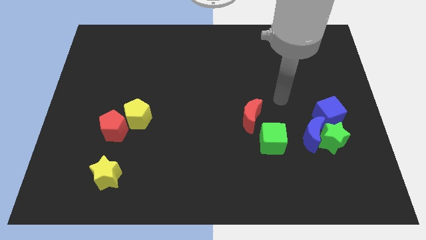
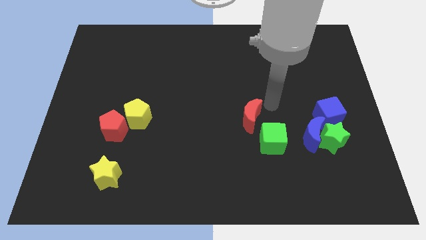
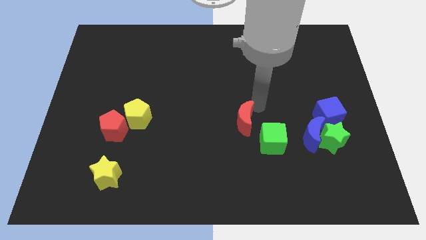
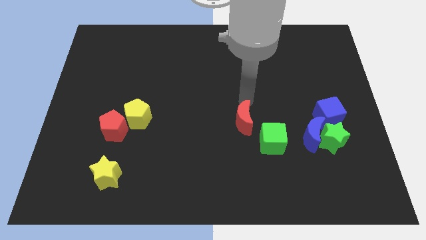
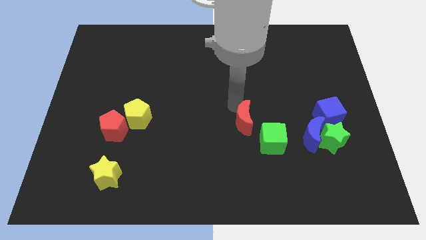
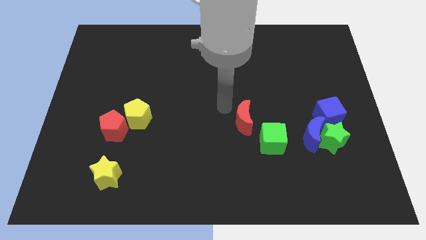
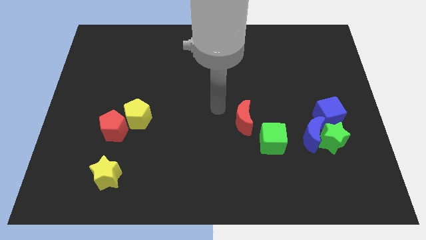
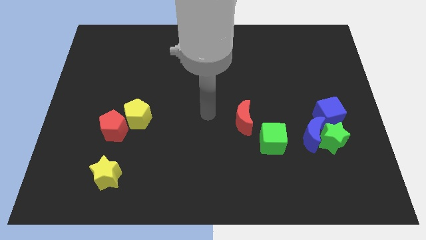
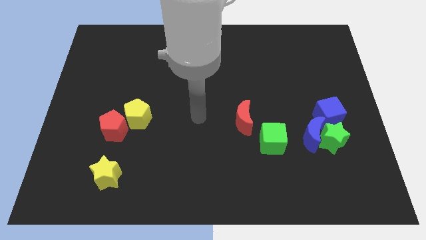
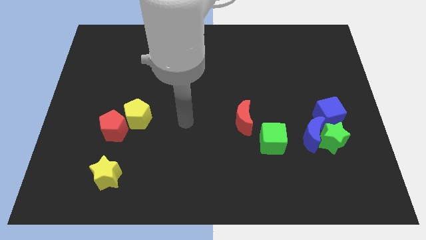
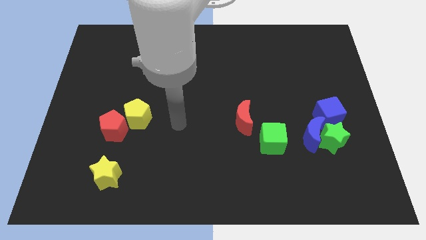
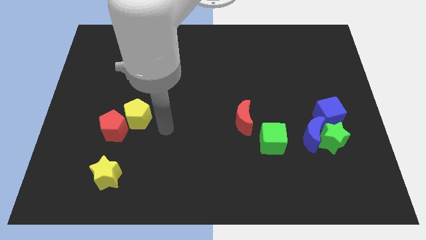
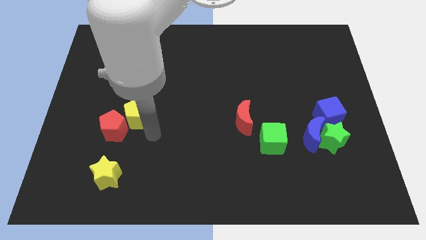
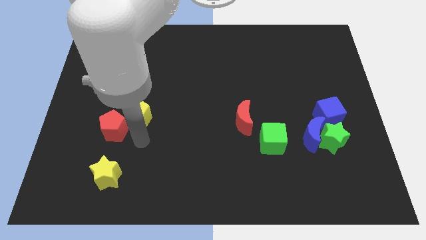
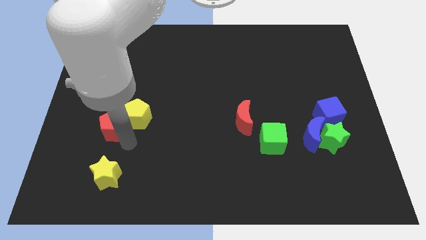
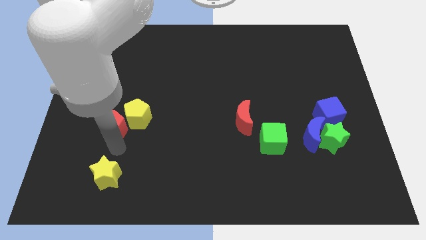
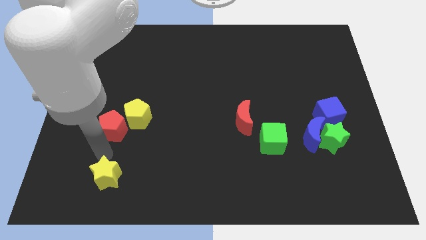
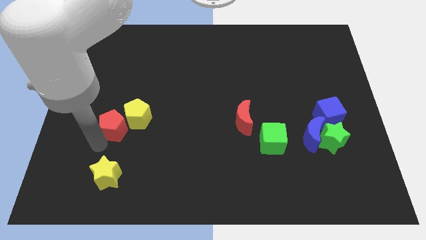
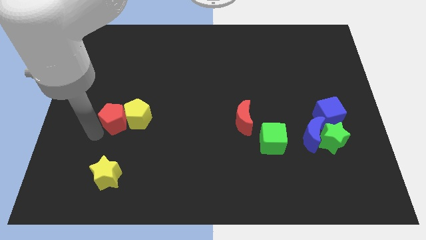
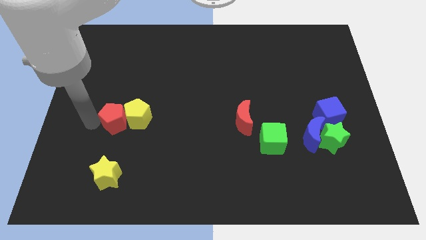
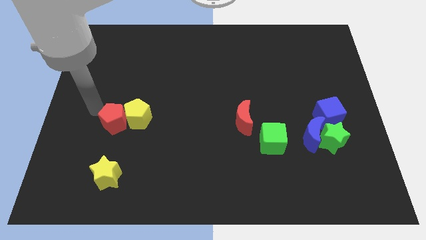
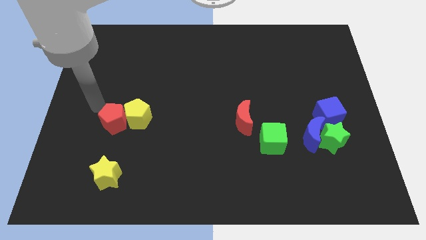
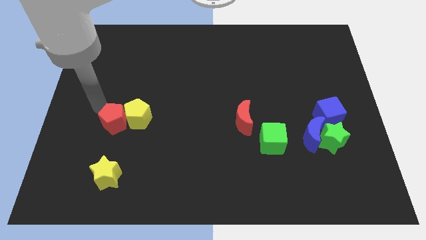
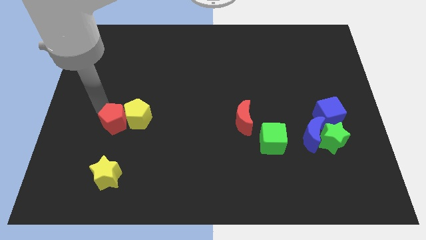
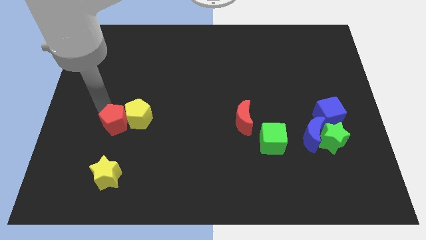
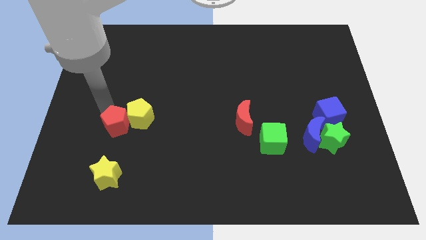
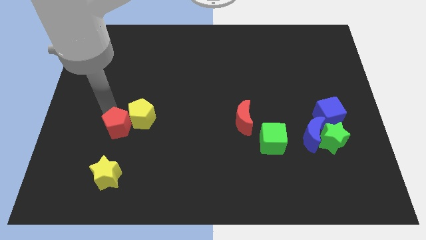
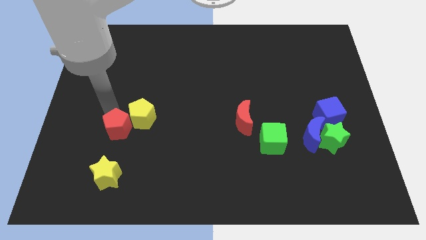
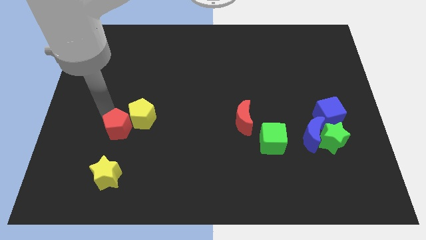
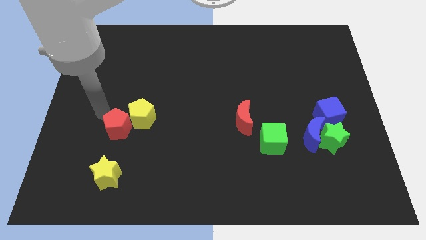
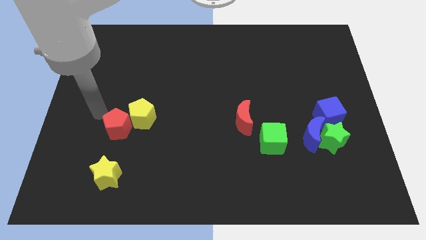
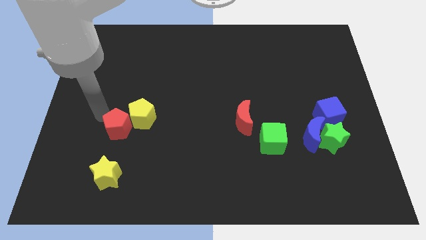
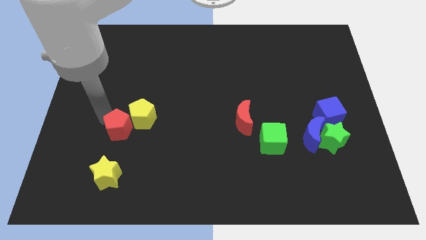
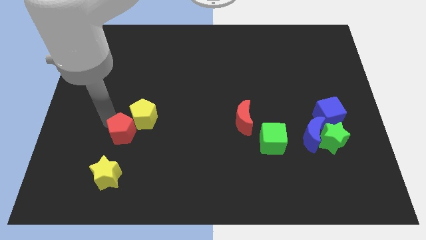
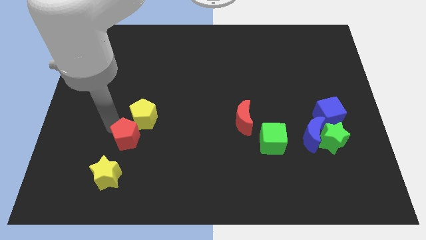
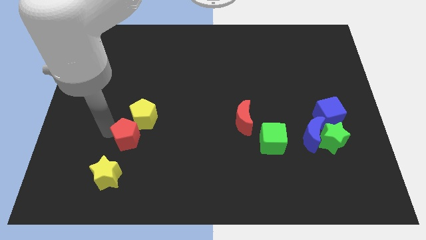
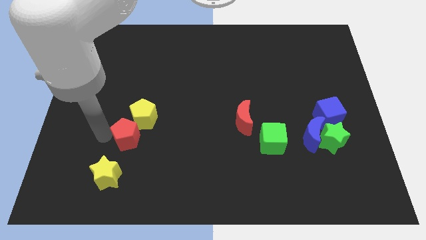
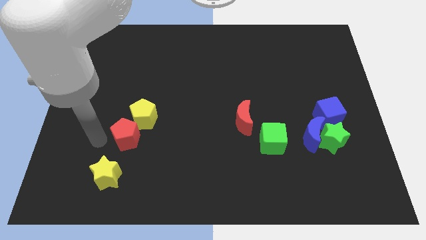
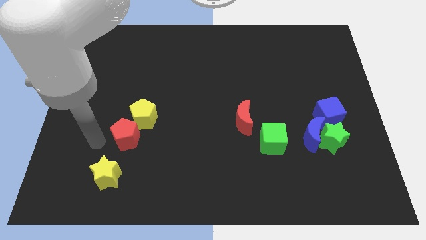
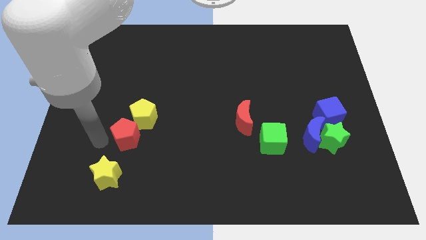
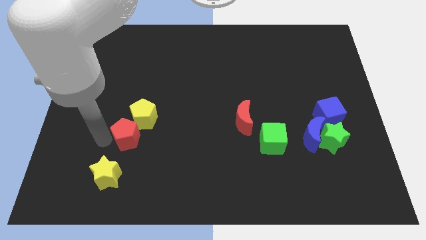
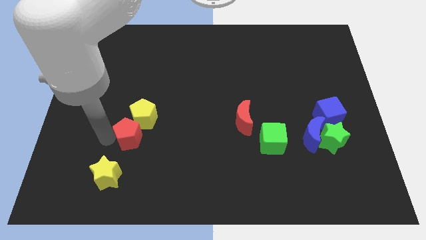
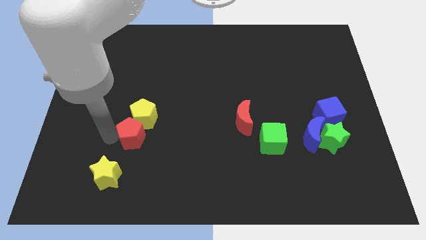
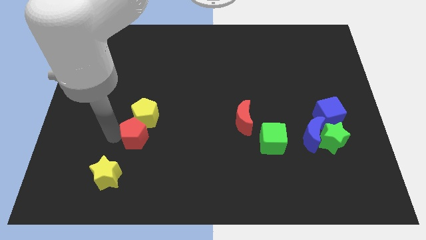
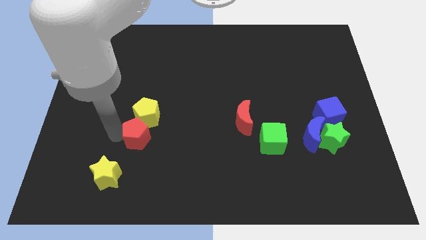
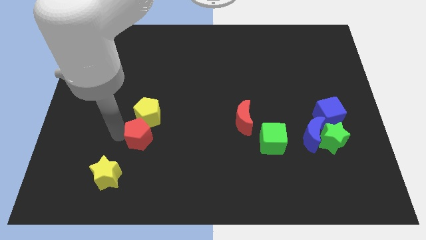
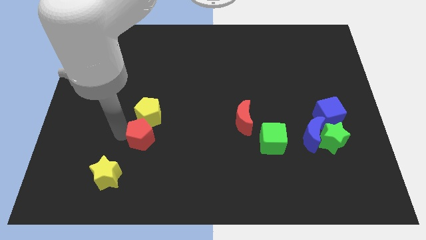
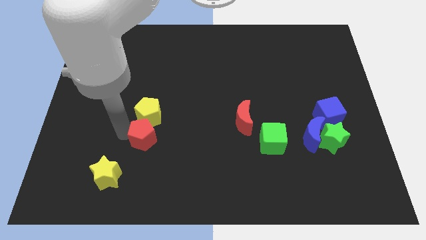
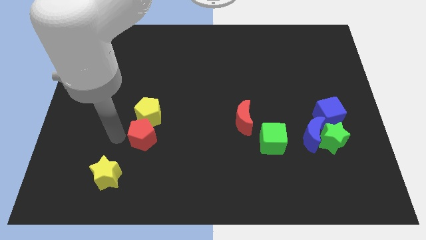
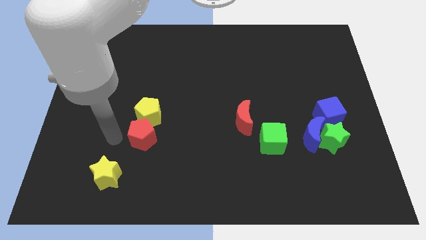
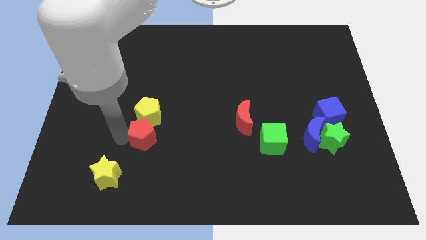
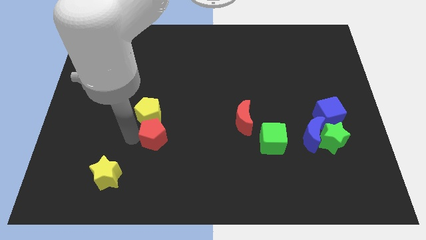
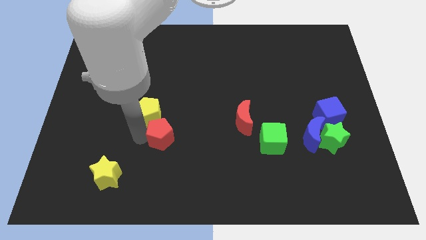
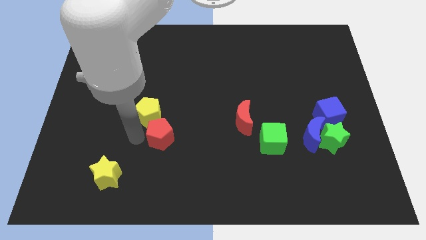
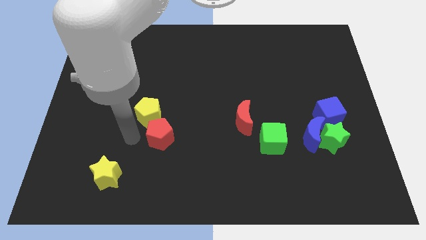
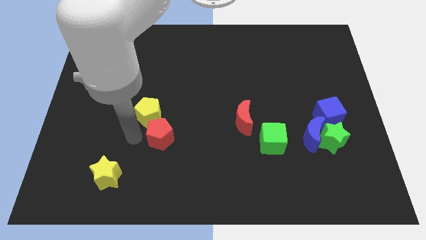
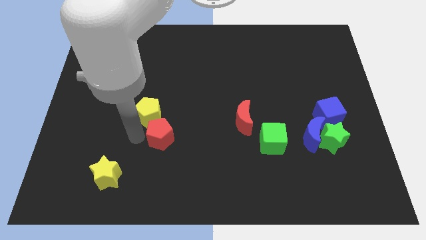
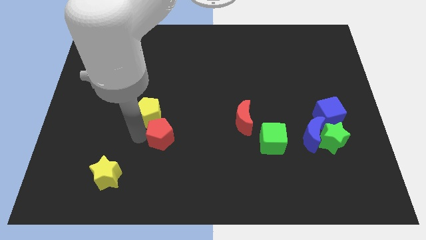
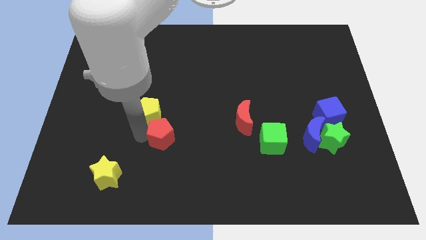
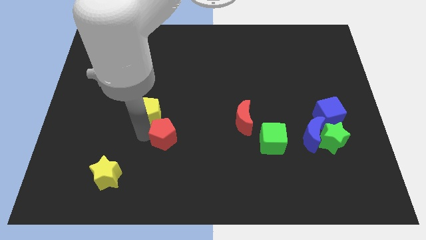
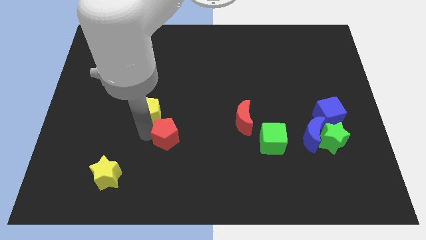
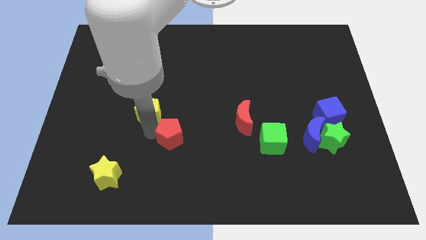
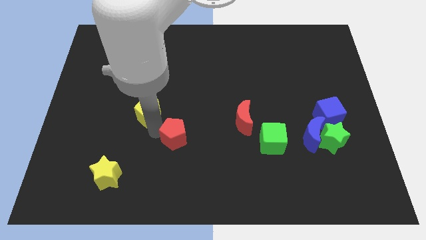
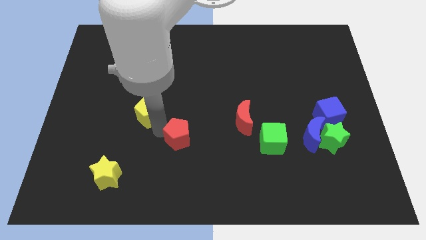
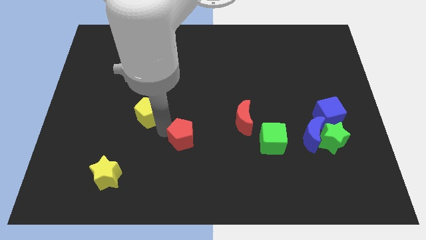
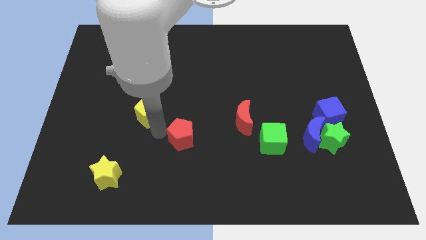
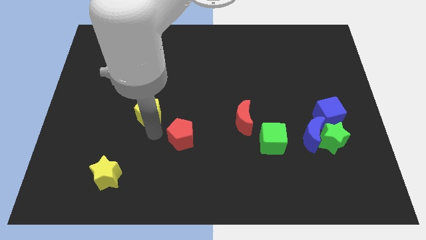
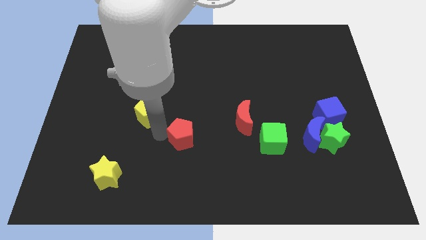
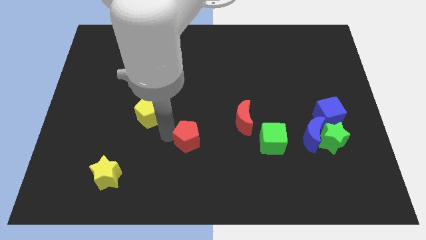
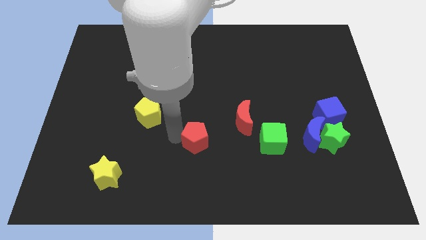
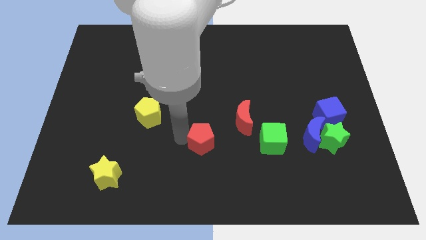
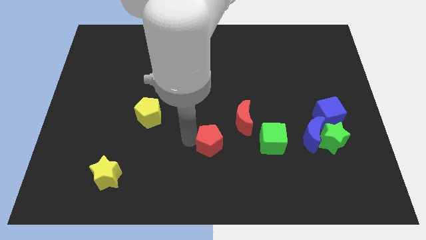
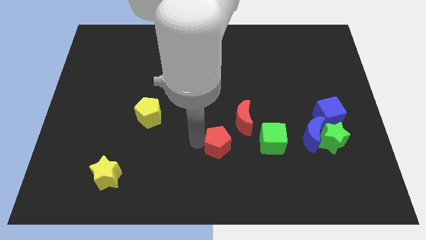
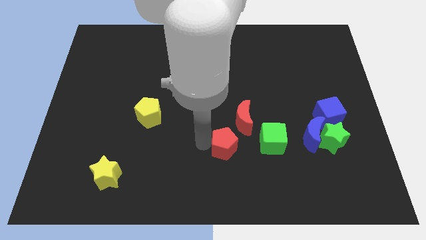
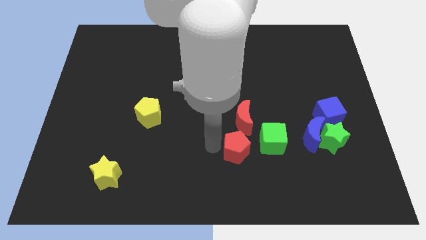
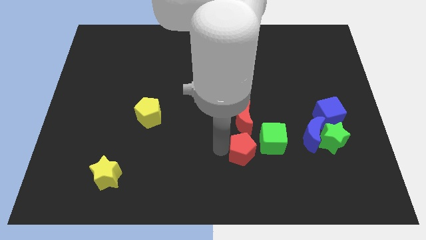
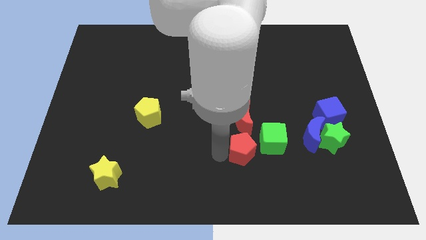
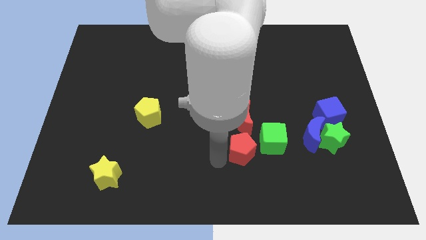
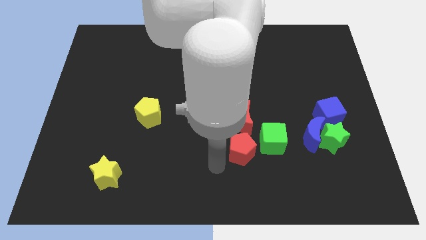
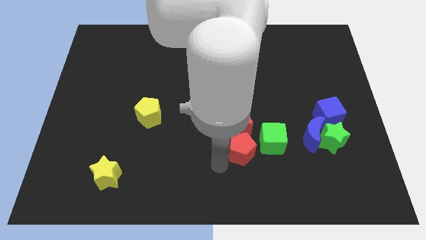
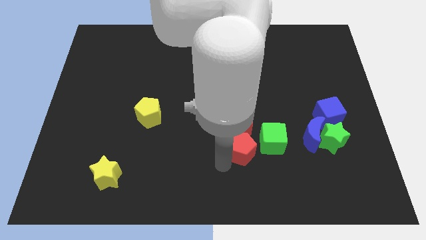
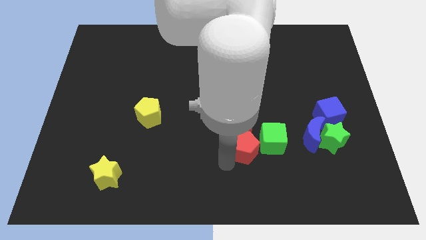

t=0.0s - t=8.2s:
push the red pentagon just left of the blue moon
